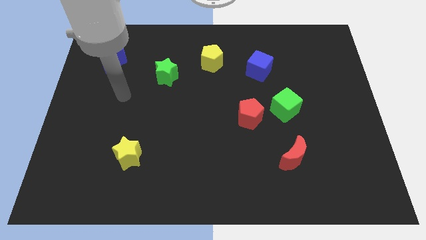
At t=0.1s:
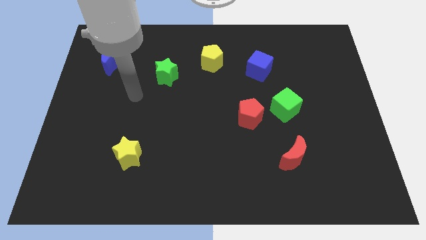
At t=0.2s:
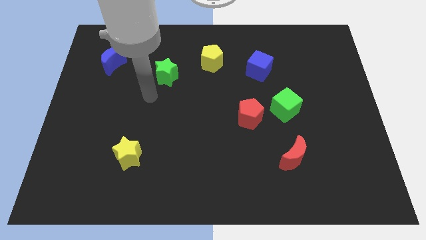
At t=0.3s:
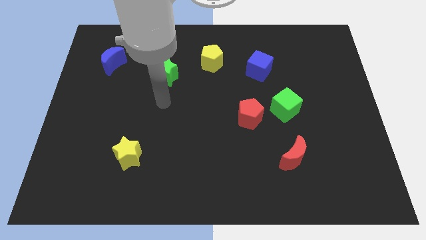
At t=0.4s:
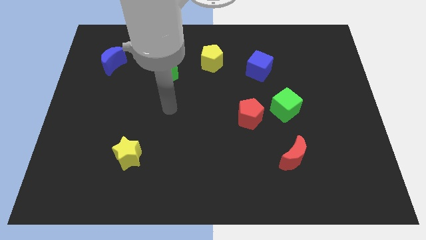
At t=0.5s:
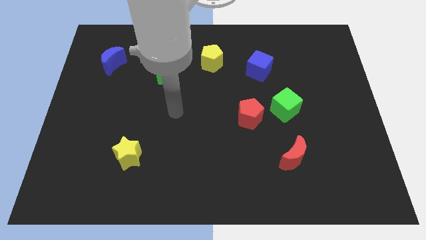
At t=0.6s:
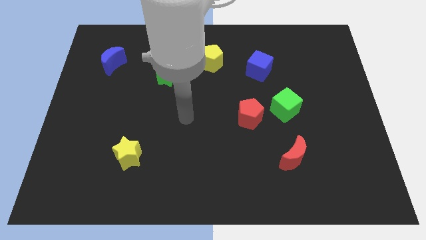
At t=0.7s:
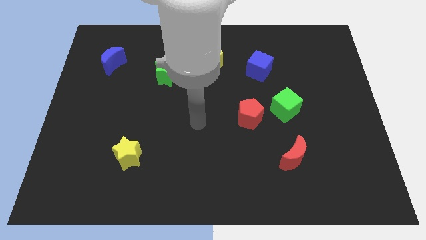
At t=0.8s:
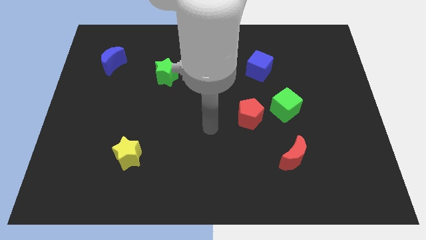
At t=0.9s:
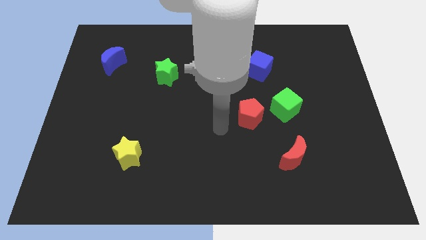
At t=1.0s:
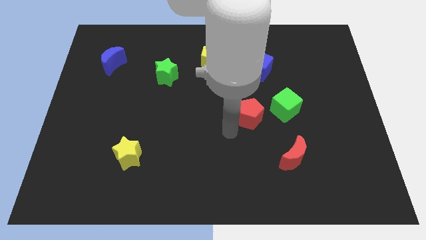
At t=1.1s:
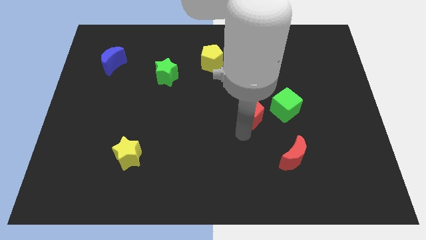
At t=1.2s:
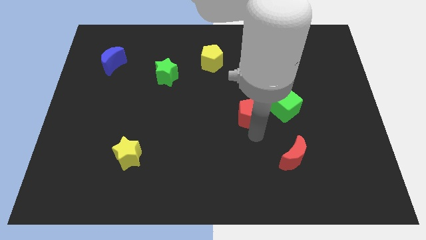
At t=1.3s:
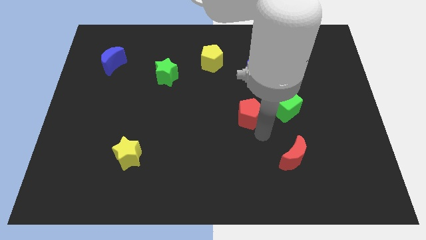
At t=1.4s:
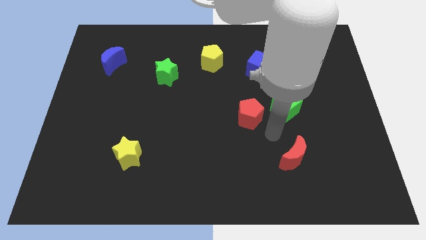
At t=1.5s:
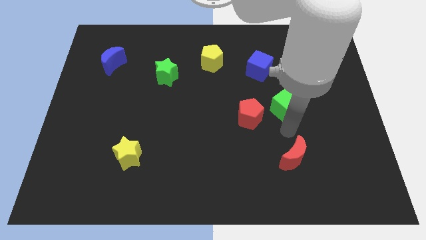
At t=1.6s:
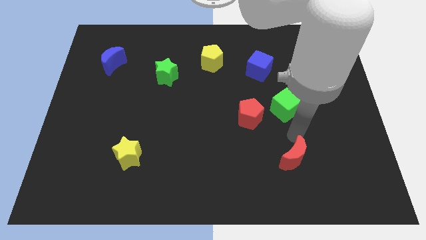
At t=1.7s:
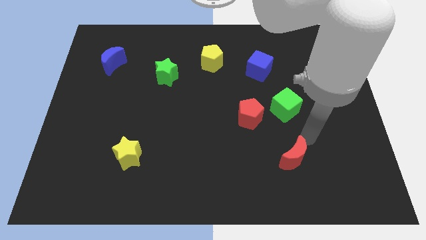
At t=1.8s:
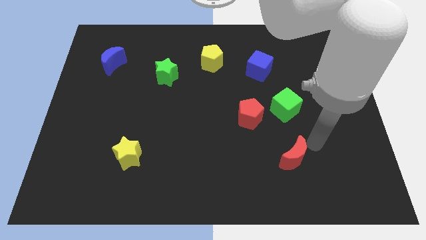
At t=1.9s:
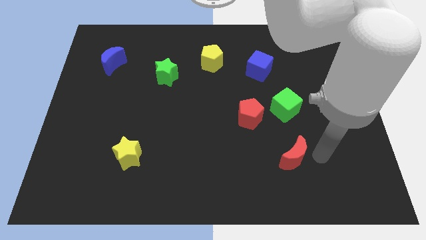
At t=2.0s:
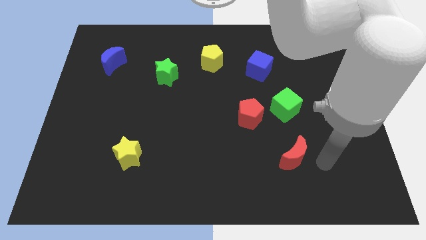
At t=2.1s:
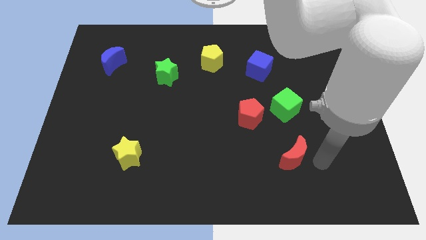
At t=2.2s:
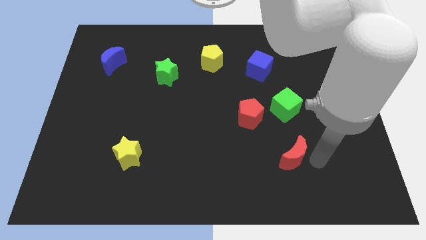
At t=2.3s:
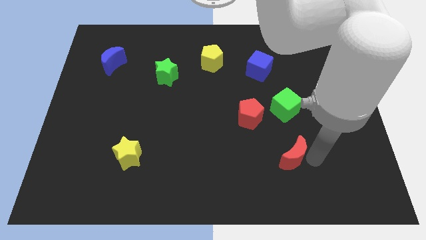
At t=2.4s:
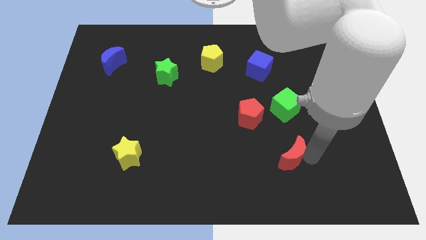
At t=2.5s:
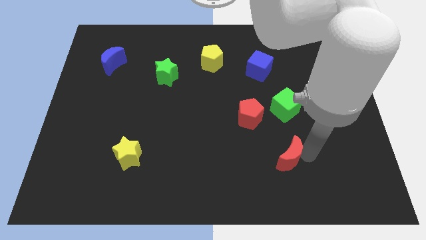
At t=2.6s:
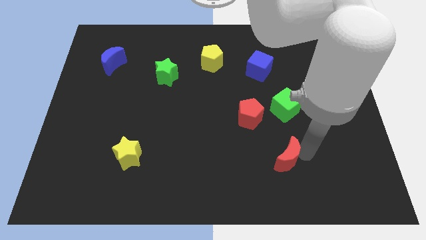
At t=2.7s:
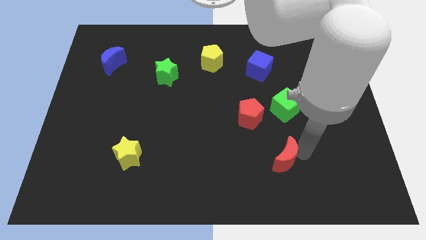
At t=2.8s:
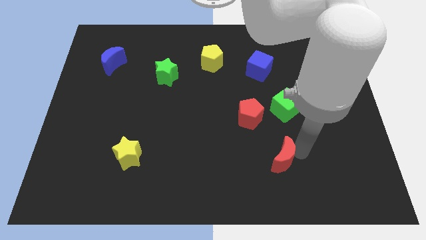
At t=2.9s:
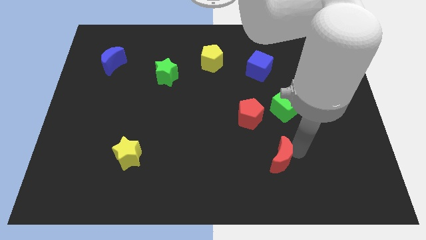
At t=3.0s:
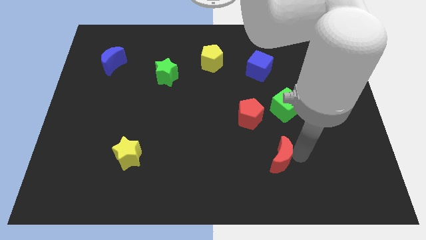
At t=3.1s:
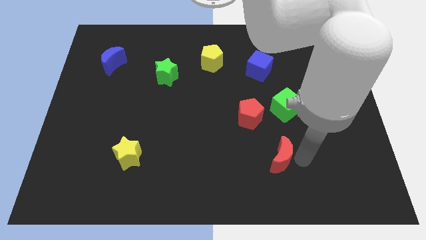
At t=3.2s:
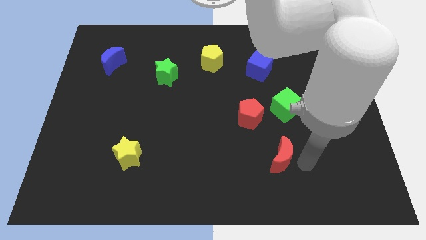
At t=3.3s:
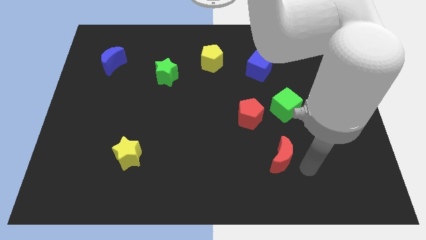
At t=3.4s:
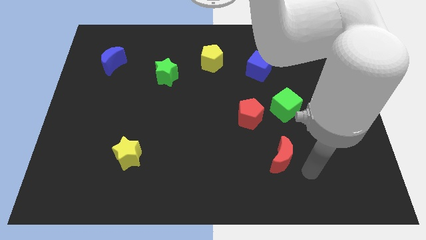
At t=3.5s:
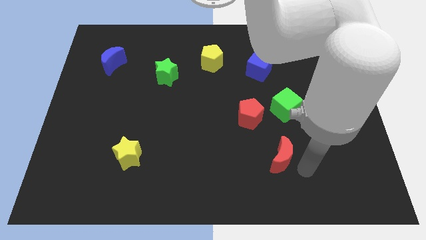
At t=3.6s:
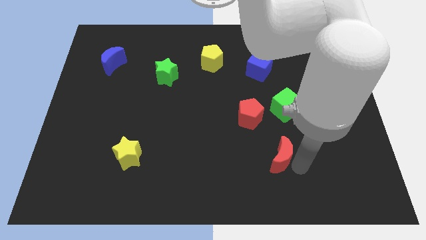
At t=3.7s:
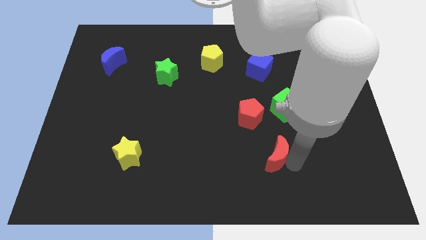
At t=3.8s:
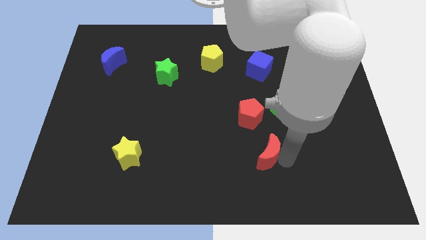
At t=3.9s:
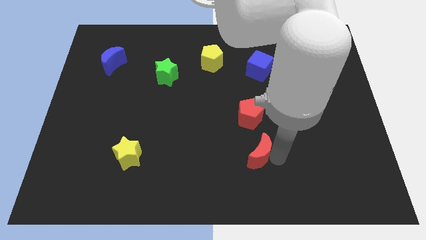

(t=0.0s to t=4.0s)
slightly slide the red moon left

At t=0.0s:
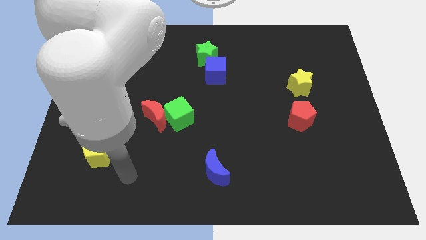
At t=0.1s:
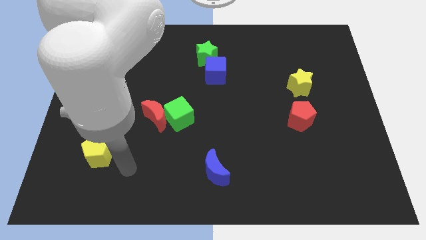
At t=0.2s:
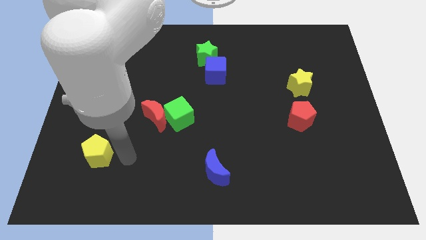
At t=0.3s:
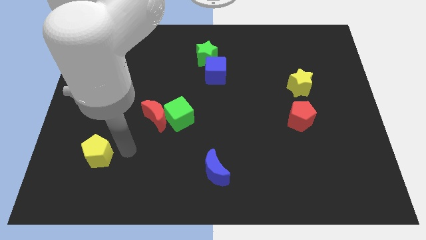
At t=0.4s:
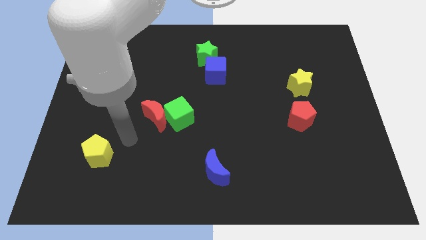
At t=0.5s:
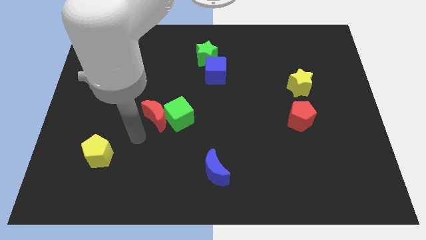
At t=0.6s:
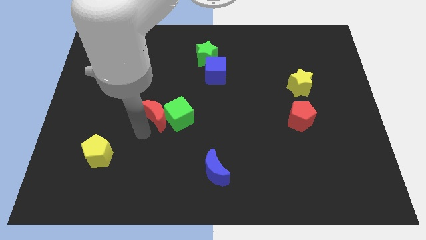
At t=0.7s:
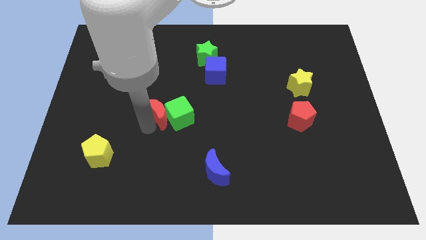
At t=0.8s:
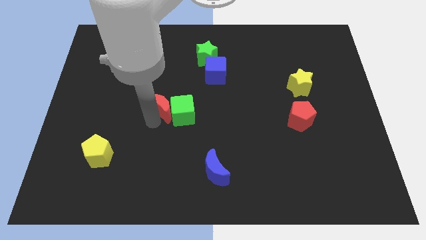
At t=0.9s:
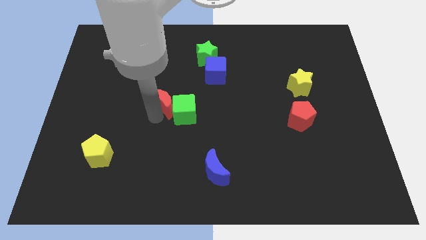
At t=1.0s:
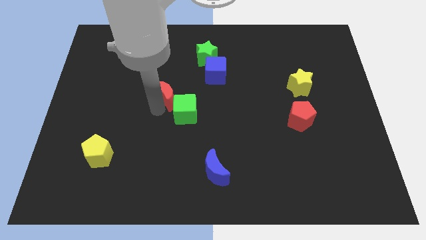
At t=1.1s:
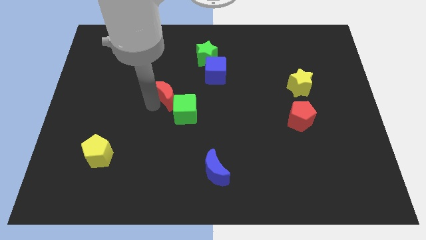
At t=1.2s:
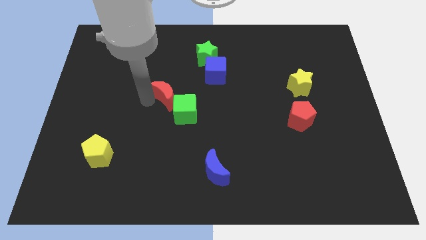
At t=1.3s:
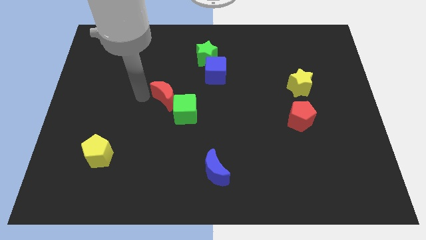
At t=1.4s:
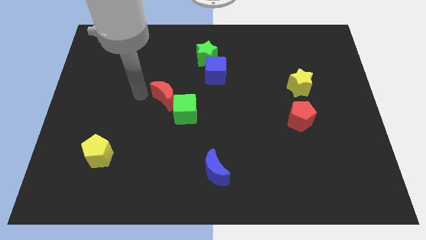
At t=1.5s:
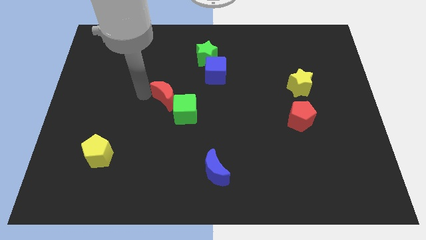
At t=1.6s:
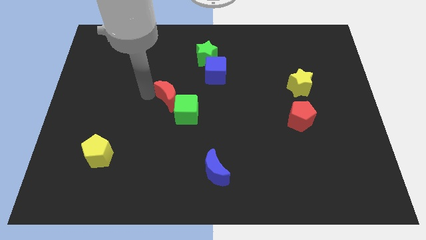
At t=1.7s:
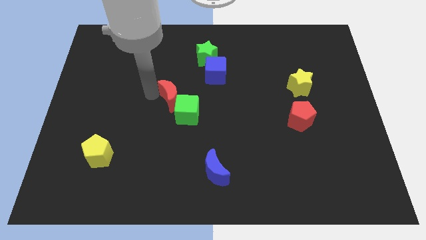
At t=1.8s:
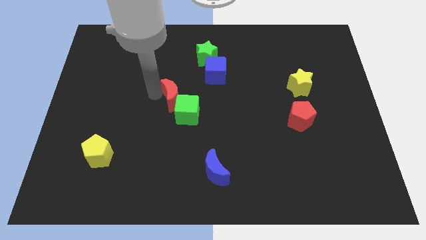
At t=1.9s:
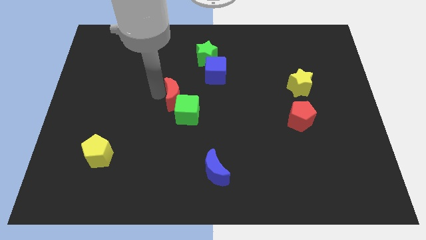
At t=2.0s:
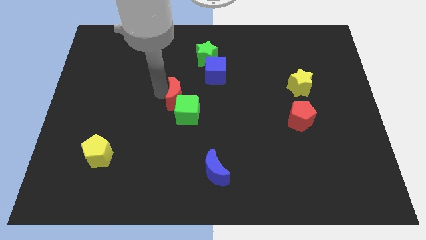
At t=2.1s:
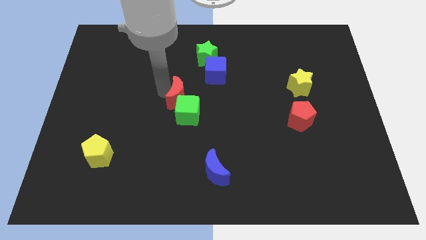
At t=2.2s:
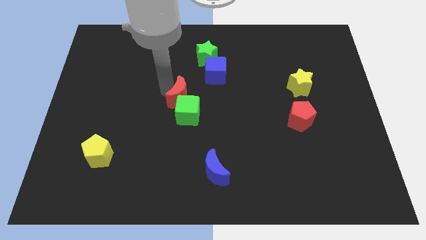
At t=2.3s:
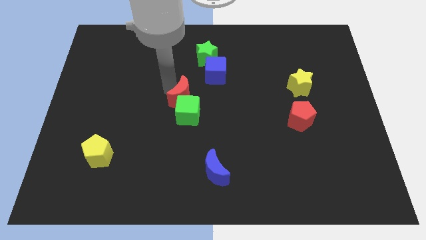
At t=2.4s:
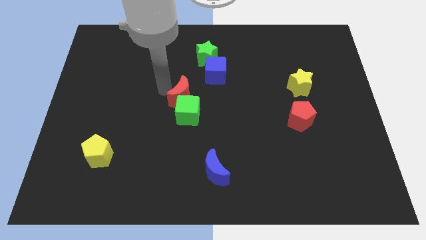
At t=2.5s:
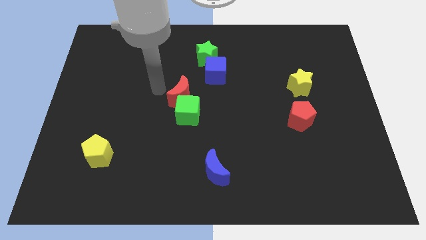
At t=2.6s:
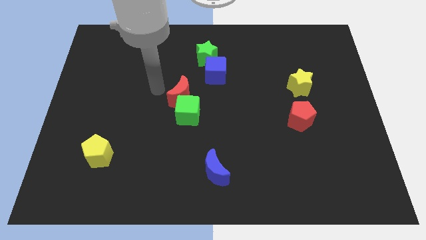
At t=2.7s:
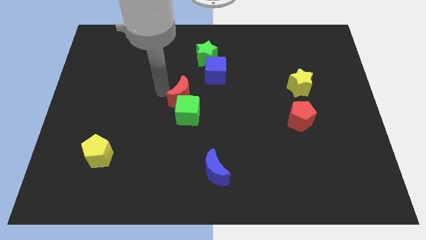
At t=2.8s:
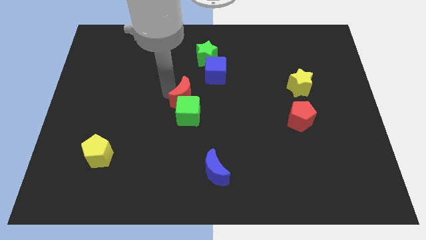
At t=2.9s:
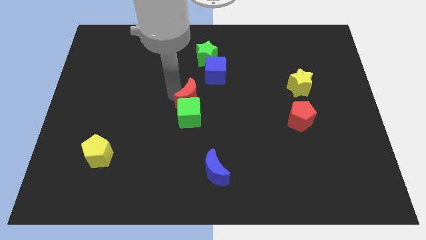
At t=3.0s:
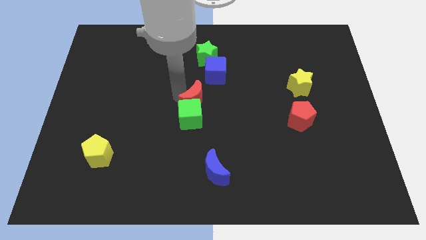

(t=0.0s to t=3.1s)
slightly push the red moon right

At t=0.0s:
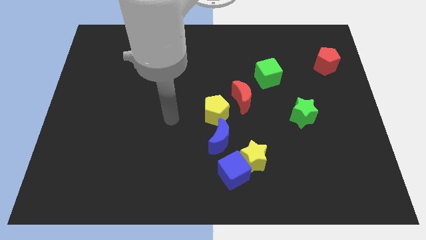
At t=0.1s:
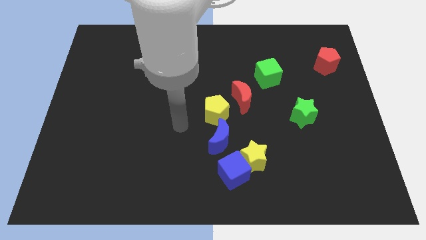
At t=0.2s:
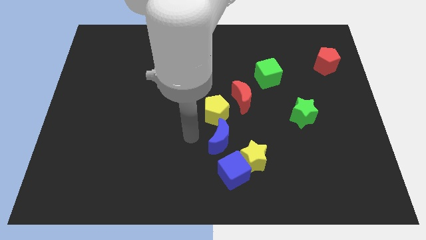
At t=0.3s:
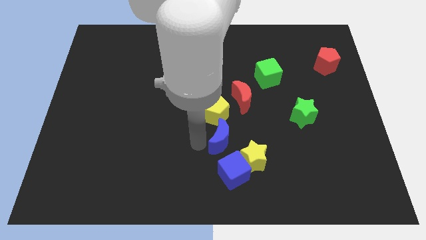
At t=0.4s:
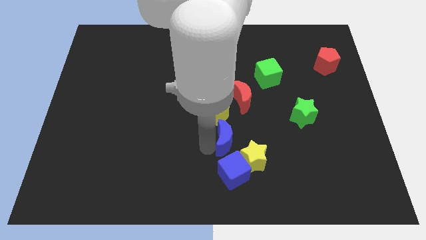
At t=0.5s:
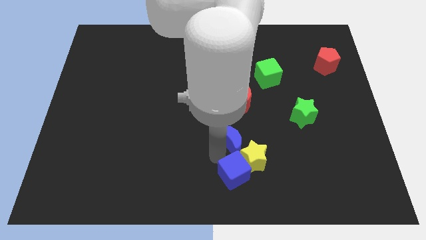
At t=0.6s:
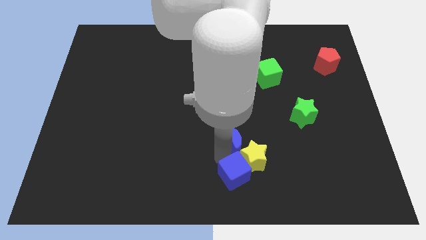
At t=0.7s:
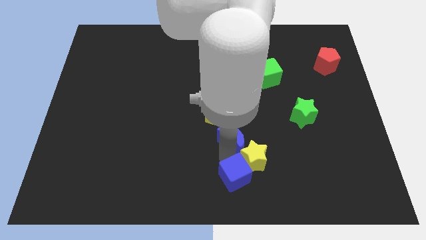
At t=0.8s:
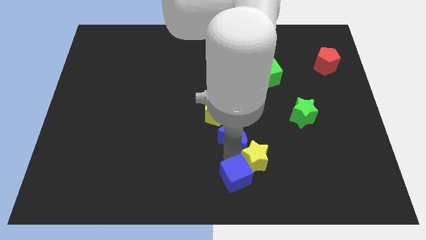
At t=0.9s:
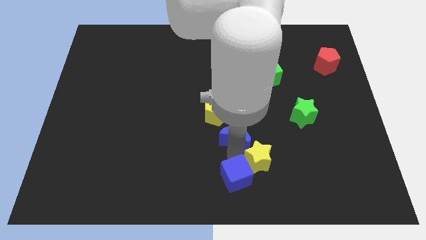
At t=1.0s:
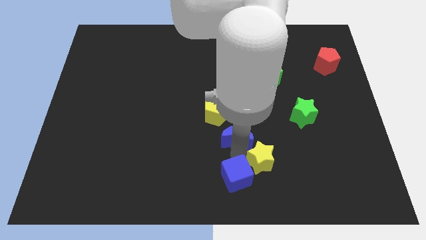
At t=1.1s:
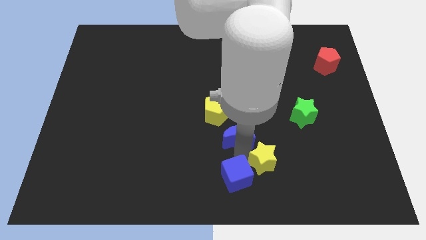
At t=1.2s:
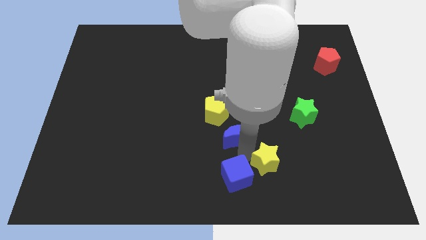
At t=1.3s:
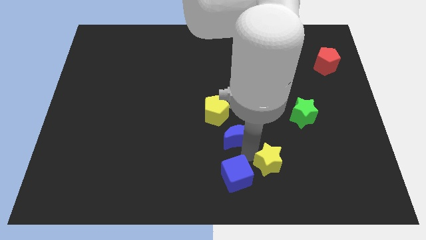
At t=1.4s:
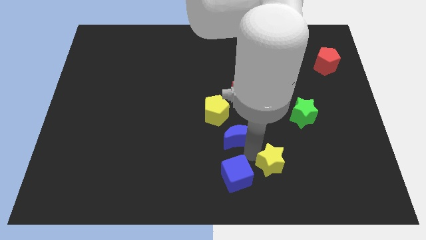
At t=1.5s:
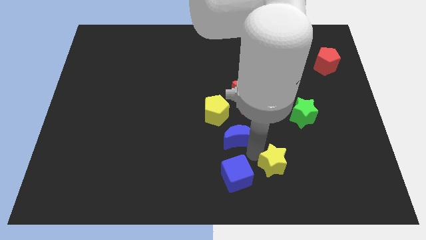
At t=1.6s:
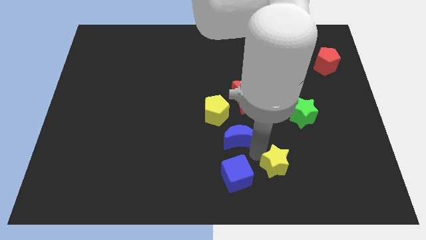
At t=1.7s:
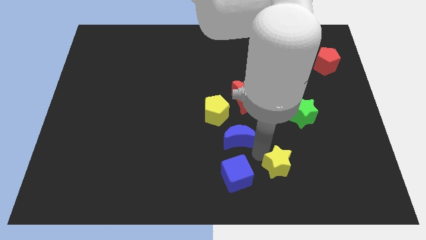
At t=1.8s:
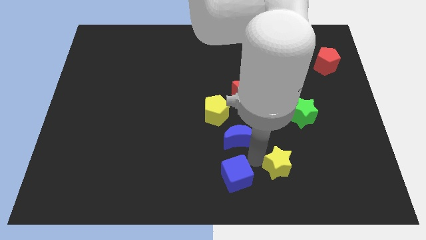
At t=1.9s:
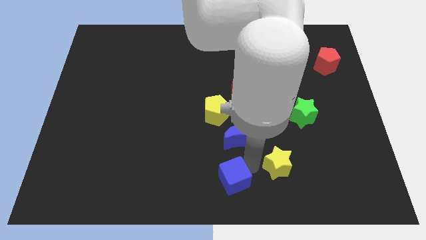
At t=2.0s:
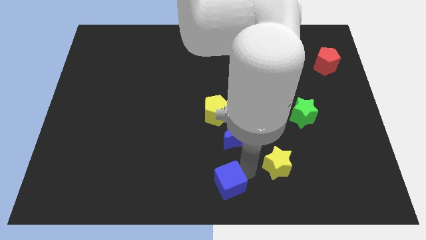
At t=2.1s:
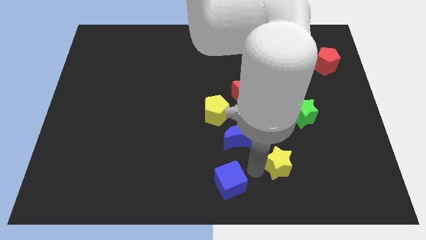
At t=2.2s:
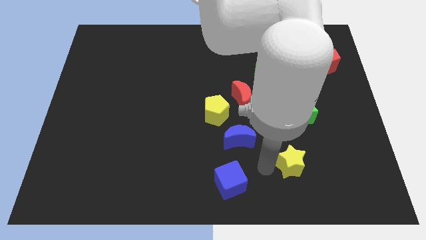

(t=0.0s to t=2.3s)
slide the yellow star right a little bit
